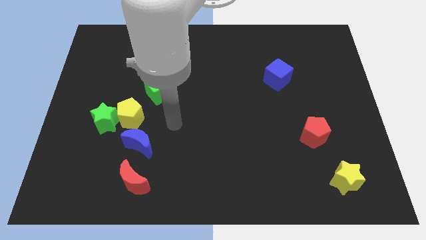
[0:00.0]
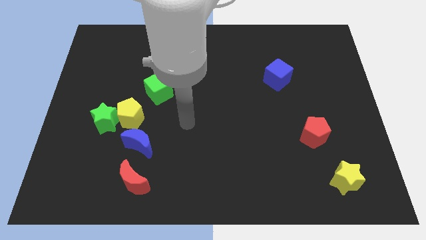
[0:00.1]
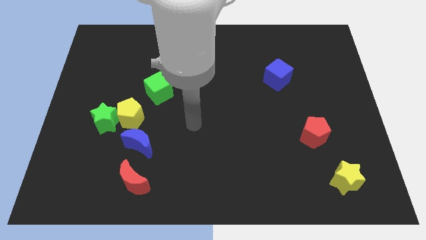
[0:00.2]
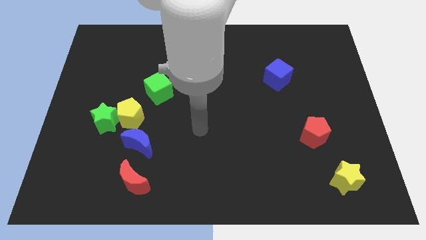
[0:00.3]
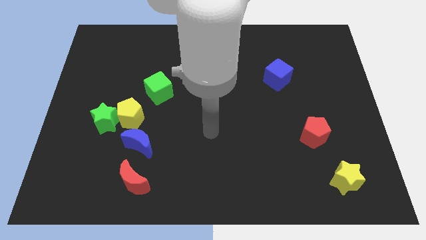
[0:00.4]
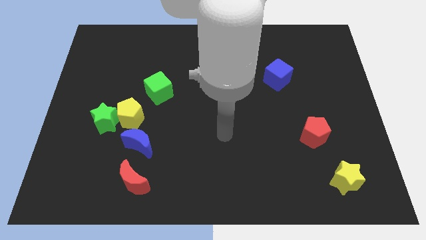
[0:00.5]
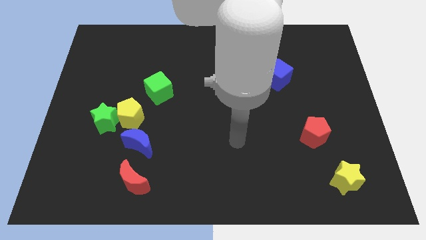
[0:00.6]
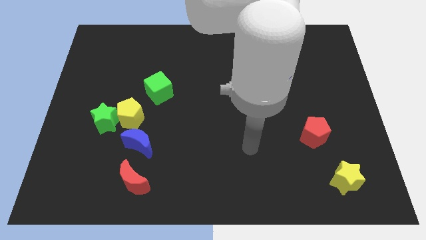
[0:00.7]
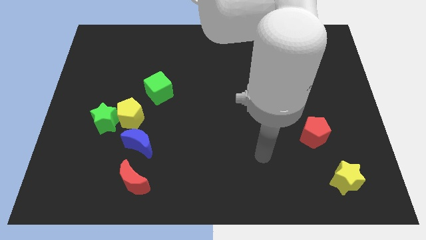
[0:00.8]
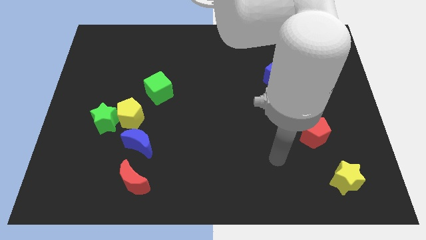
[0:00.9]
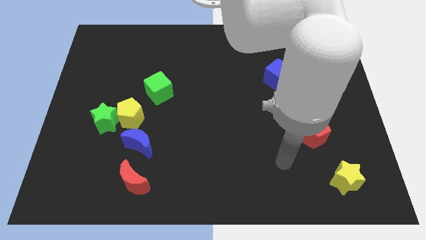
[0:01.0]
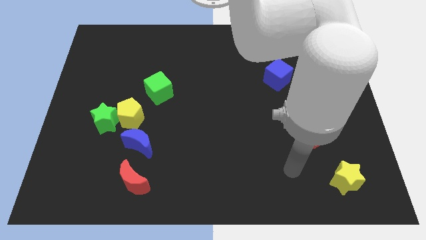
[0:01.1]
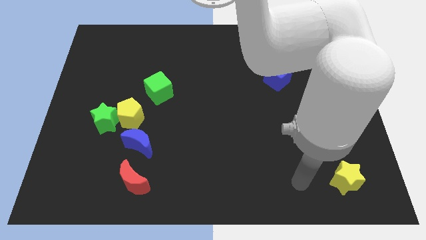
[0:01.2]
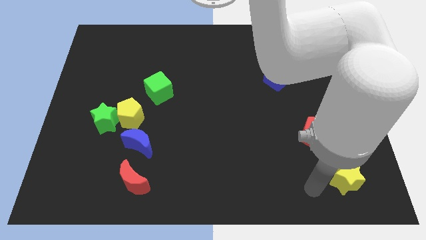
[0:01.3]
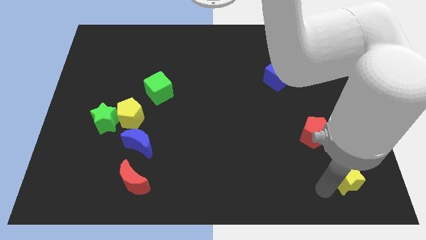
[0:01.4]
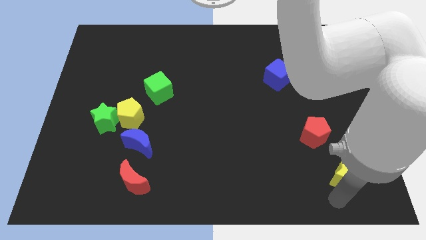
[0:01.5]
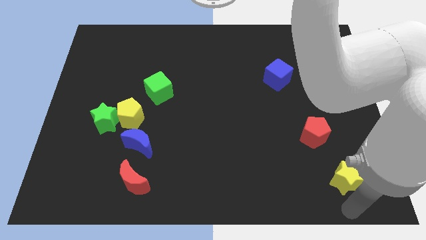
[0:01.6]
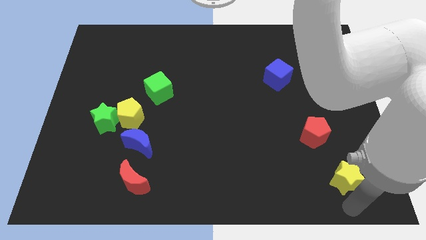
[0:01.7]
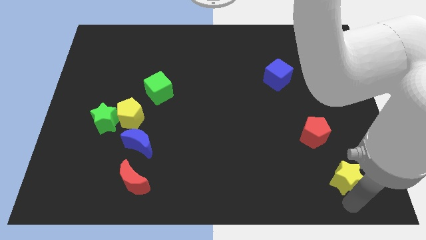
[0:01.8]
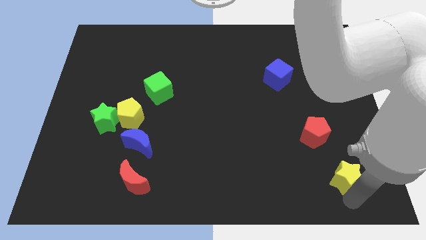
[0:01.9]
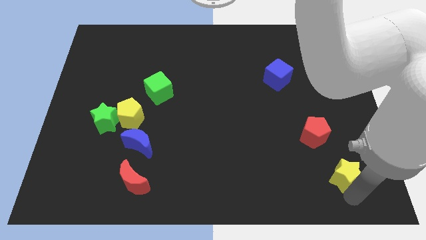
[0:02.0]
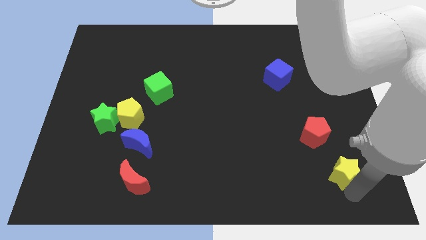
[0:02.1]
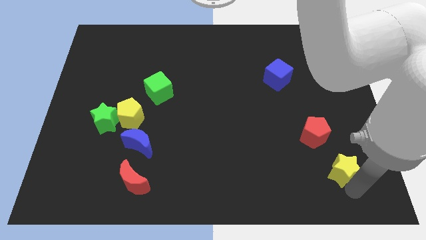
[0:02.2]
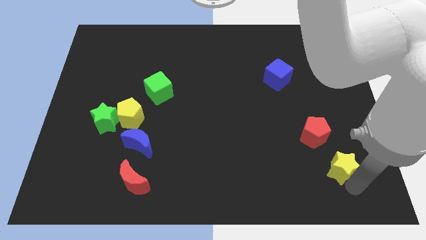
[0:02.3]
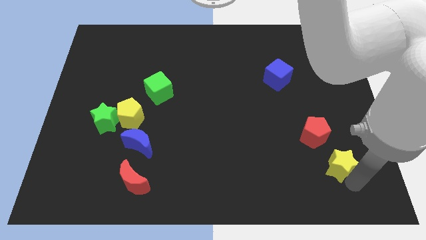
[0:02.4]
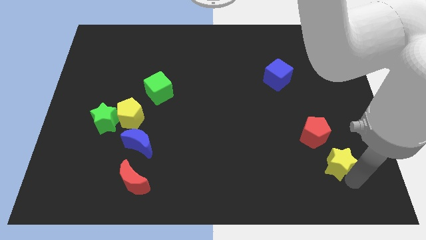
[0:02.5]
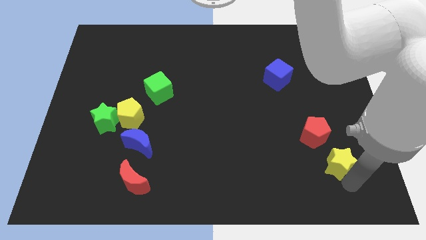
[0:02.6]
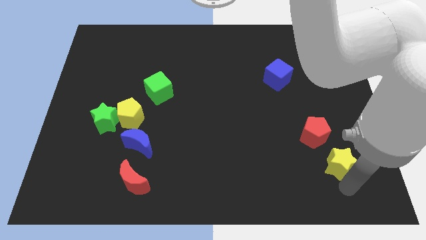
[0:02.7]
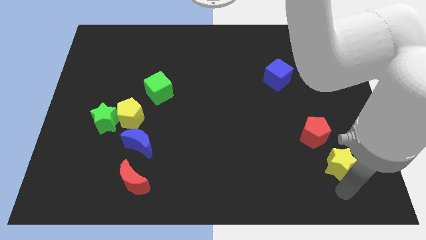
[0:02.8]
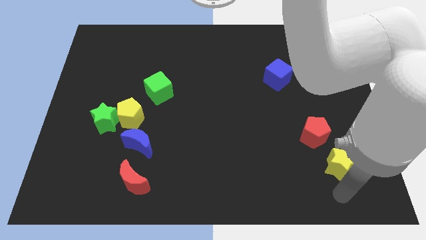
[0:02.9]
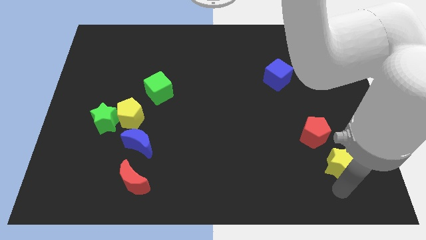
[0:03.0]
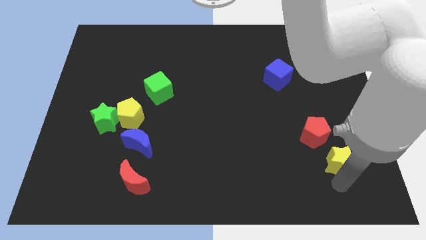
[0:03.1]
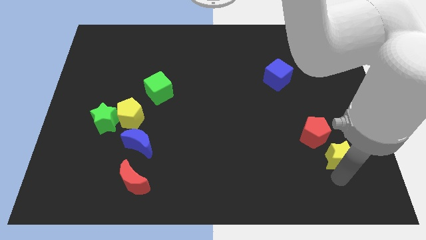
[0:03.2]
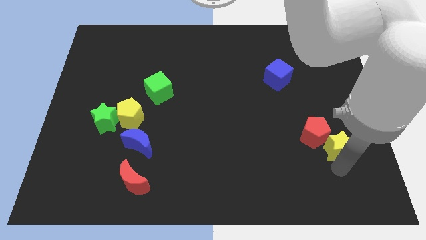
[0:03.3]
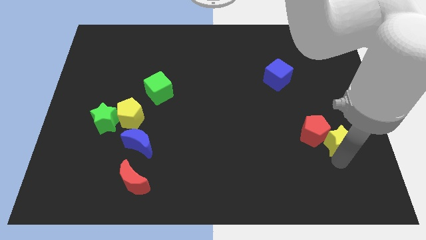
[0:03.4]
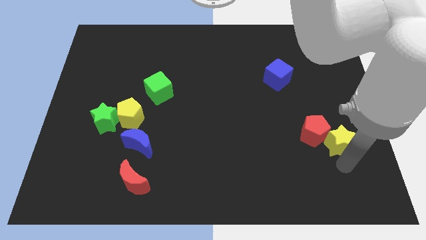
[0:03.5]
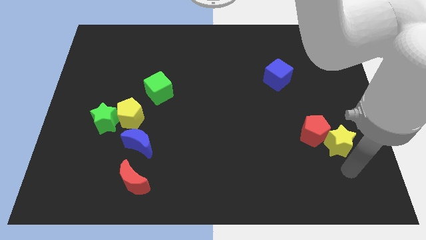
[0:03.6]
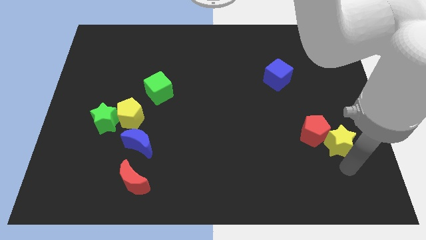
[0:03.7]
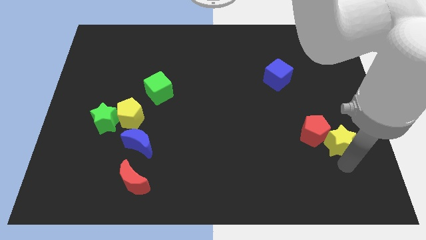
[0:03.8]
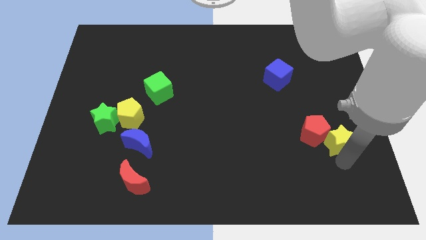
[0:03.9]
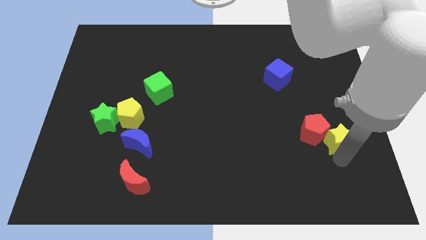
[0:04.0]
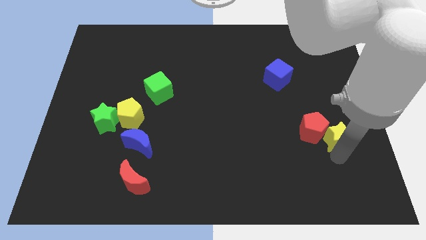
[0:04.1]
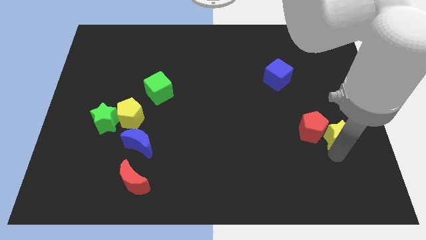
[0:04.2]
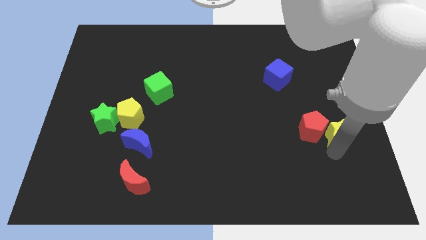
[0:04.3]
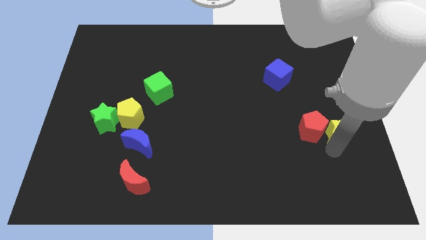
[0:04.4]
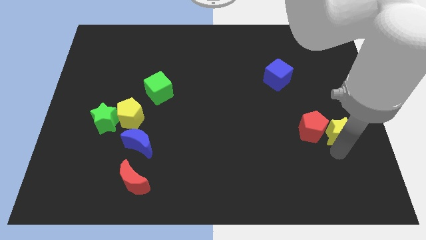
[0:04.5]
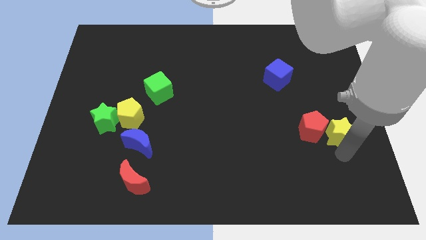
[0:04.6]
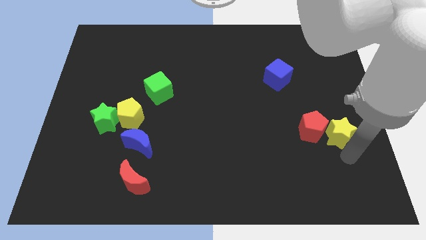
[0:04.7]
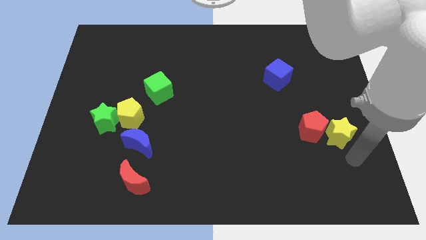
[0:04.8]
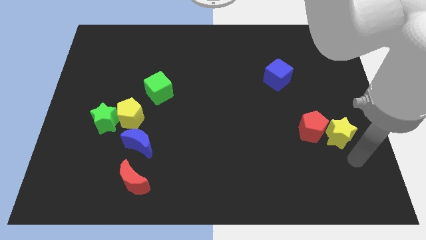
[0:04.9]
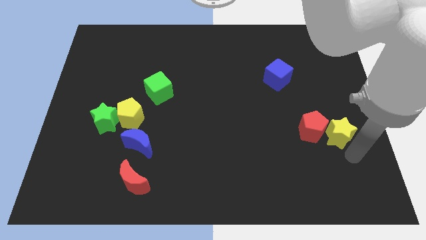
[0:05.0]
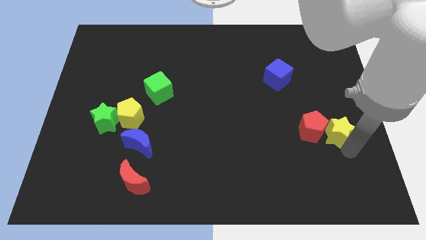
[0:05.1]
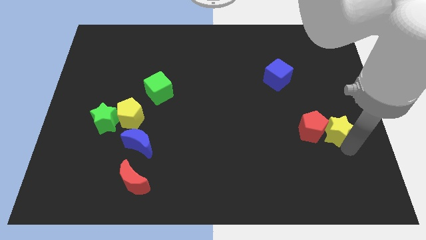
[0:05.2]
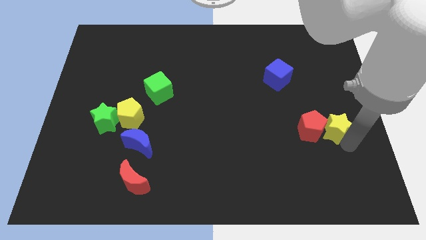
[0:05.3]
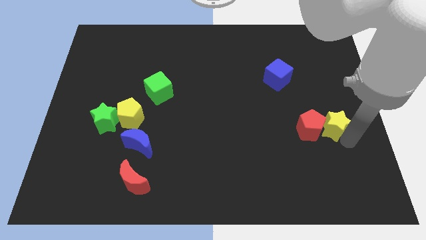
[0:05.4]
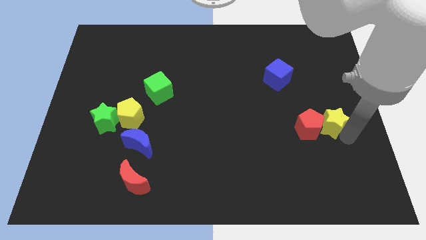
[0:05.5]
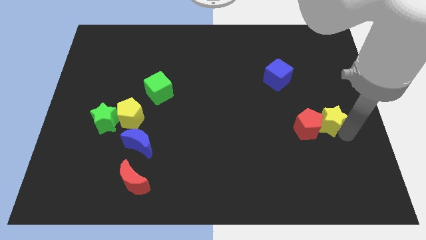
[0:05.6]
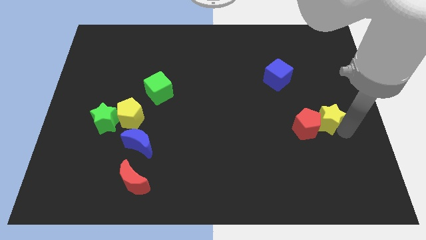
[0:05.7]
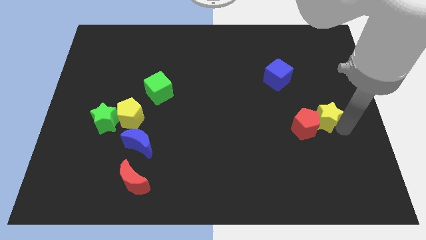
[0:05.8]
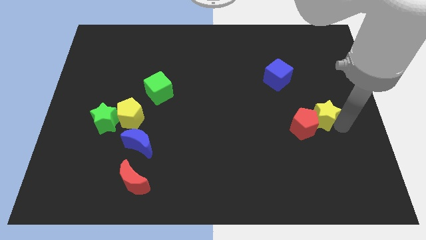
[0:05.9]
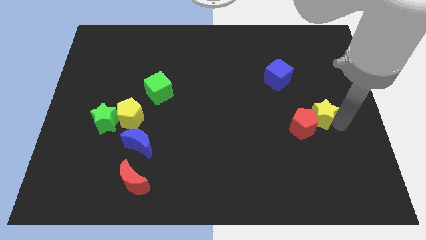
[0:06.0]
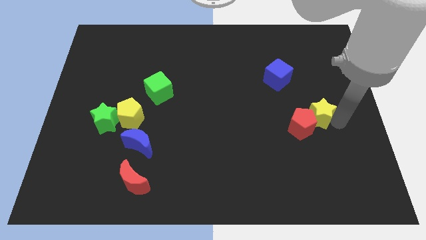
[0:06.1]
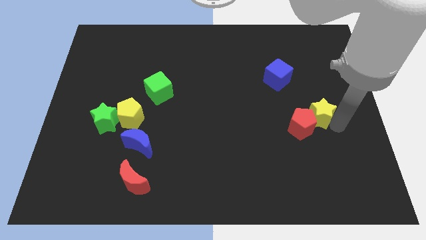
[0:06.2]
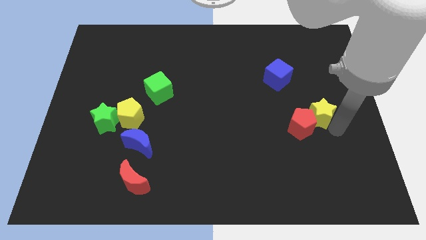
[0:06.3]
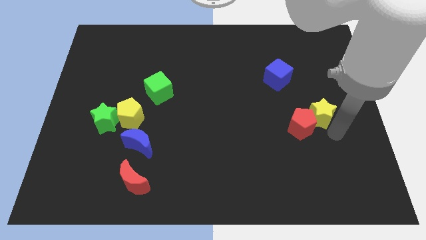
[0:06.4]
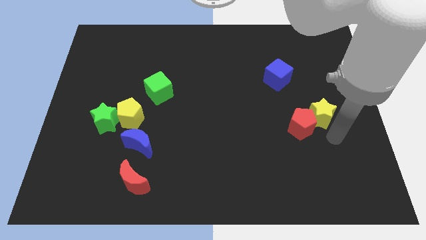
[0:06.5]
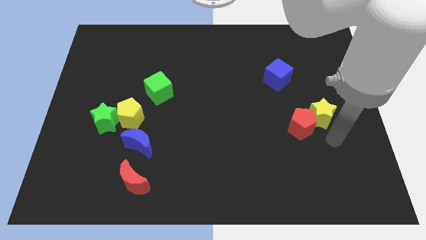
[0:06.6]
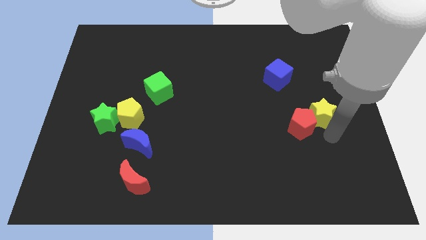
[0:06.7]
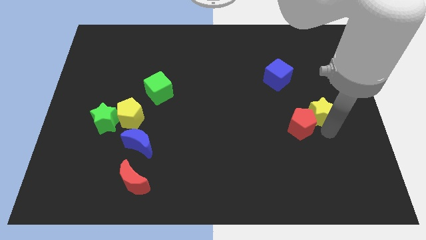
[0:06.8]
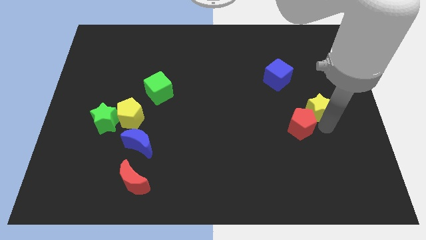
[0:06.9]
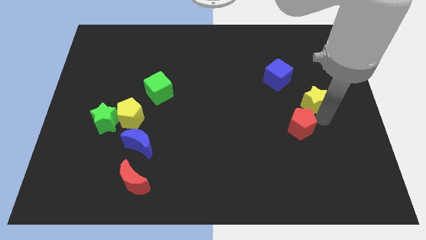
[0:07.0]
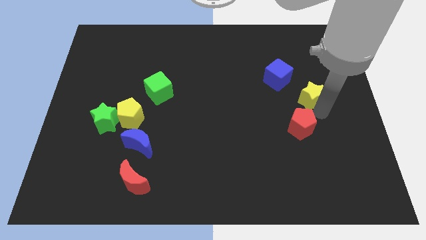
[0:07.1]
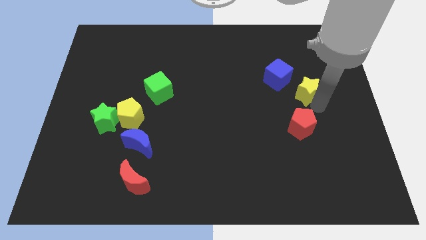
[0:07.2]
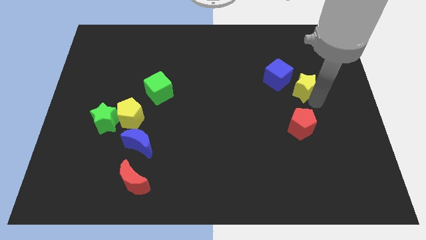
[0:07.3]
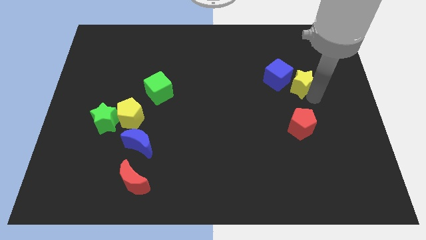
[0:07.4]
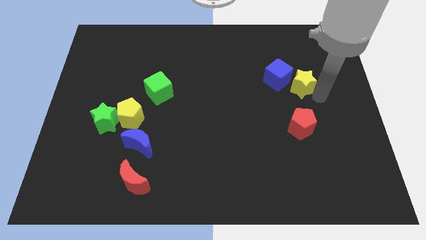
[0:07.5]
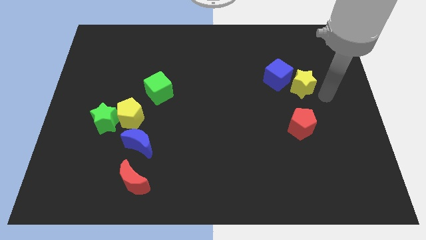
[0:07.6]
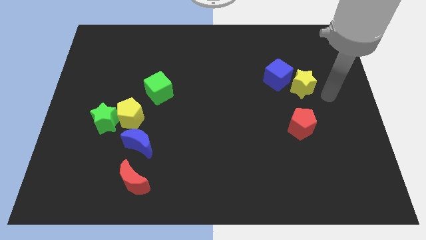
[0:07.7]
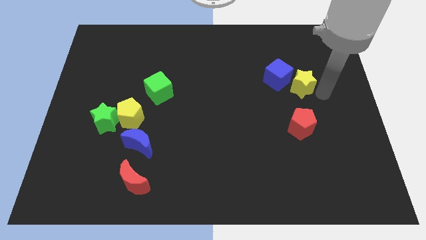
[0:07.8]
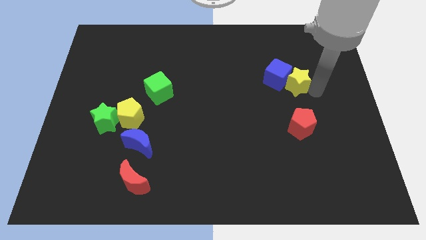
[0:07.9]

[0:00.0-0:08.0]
slide the yellow star towards the blue cube

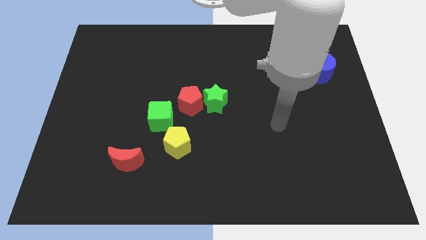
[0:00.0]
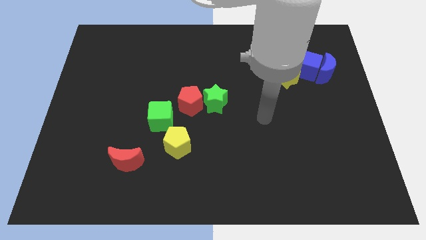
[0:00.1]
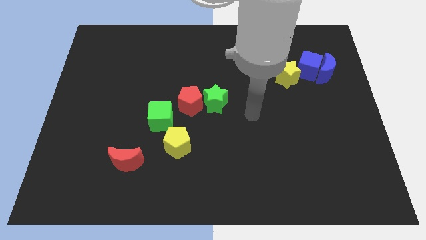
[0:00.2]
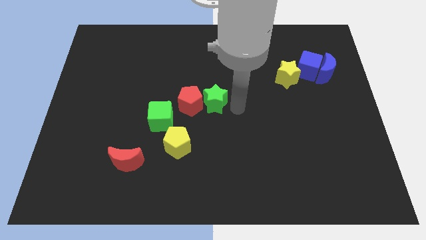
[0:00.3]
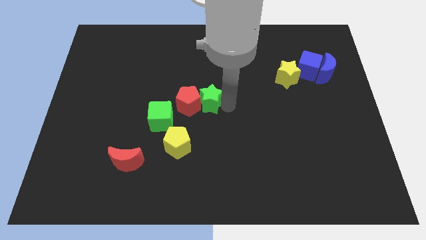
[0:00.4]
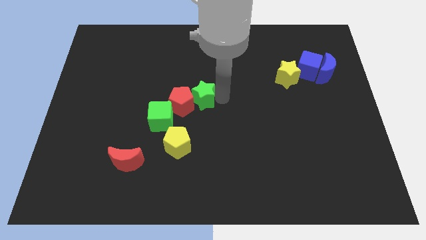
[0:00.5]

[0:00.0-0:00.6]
slide the red pentagon towards the green cube

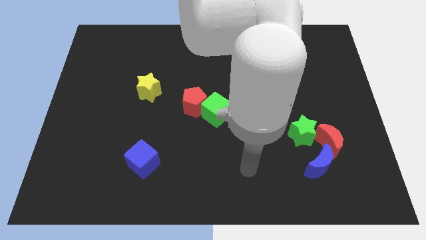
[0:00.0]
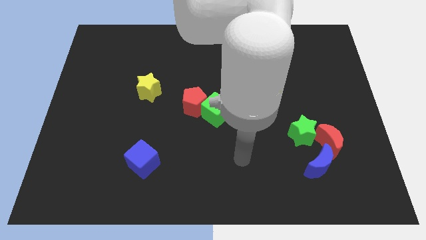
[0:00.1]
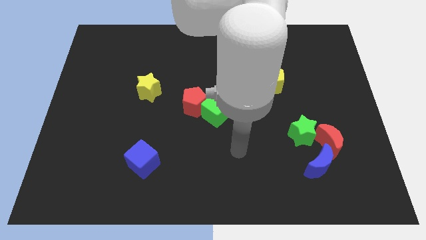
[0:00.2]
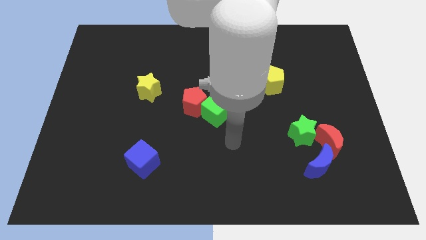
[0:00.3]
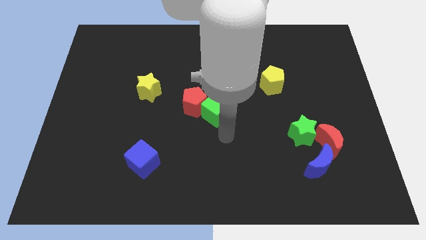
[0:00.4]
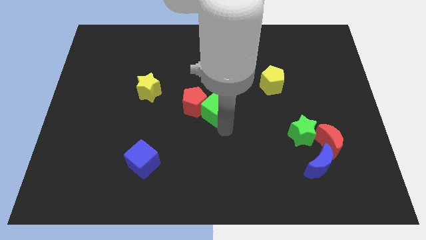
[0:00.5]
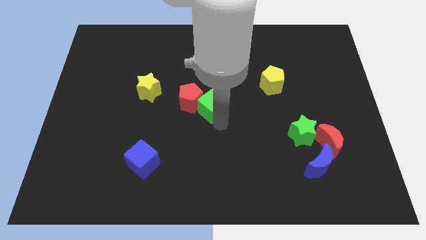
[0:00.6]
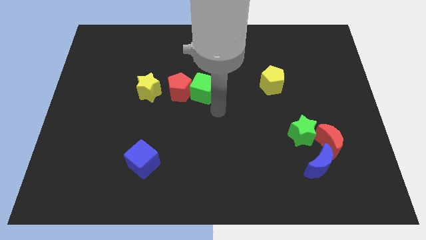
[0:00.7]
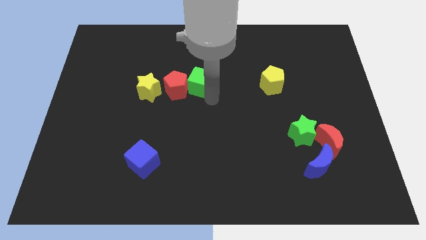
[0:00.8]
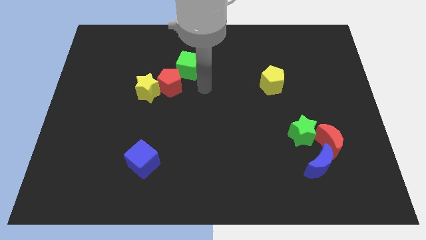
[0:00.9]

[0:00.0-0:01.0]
slide the red pentagon to the yellow star
